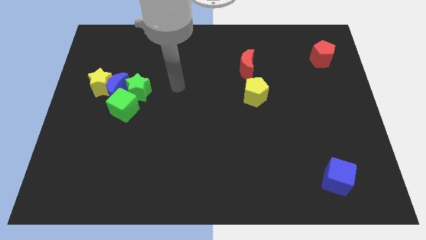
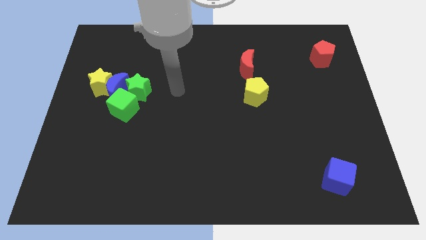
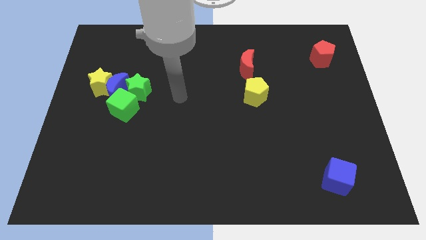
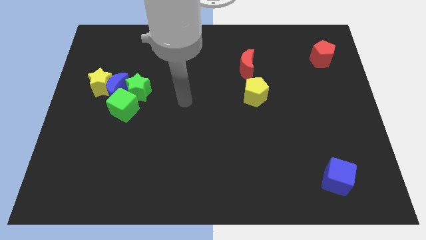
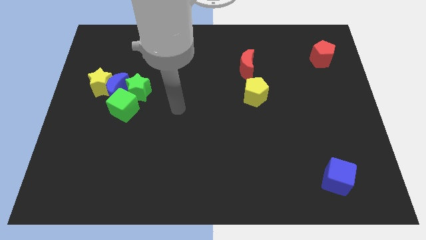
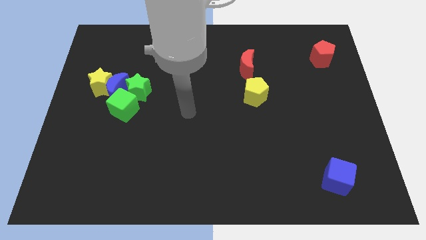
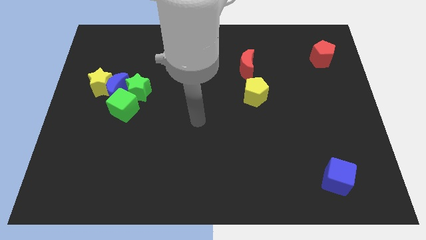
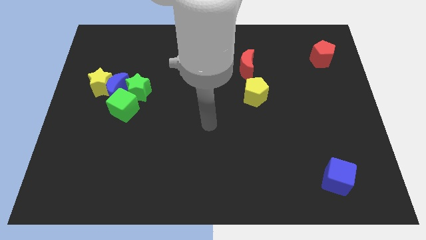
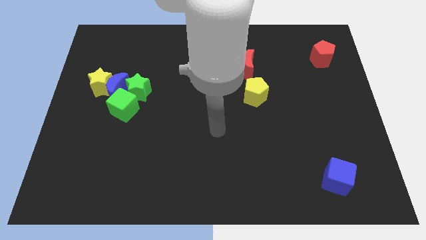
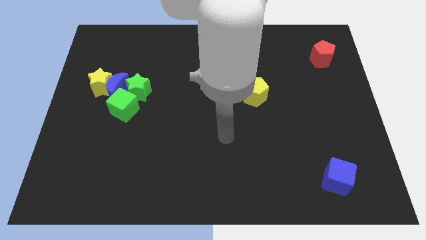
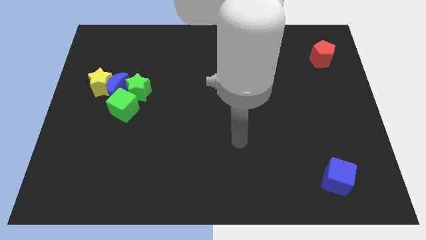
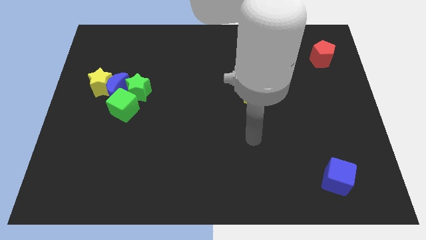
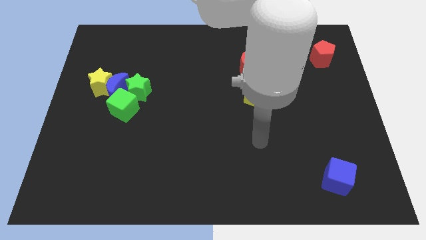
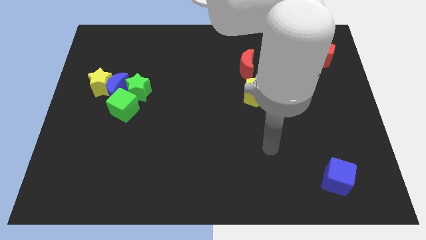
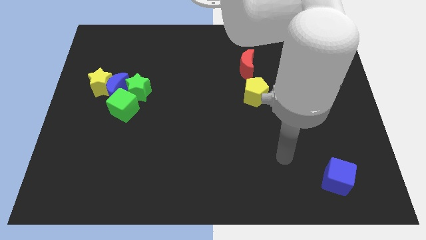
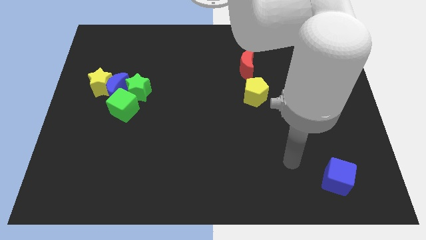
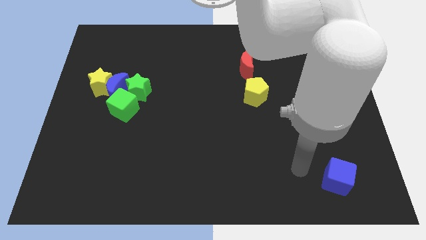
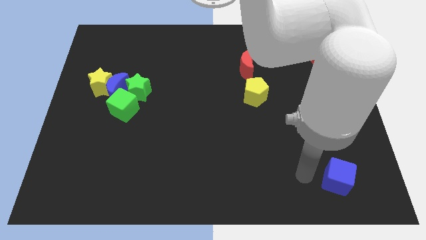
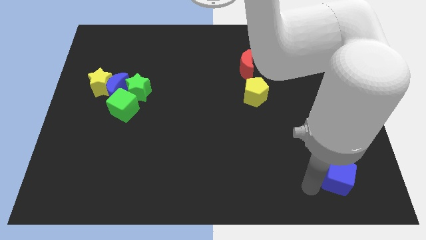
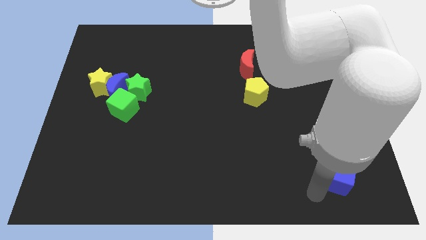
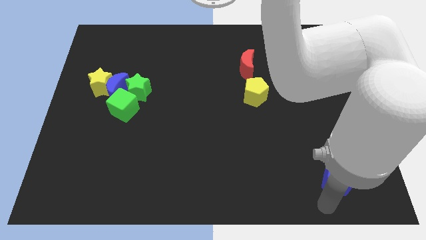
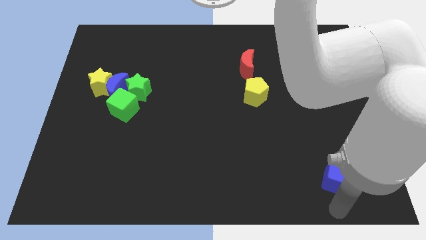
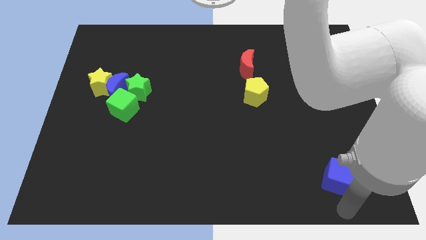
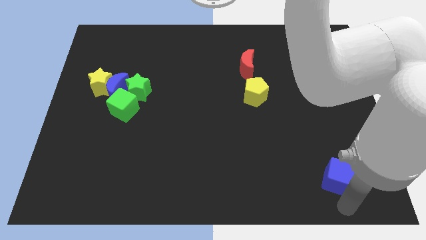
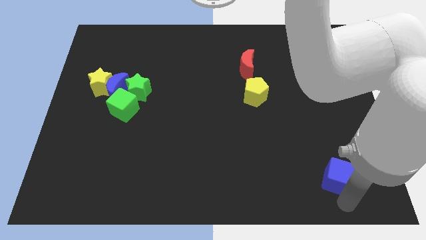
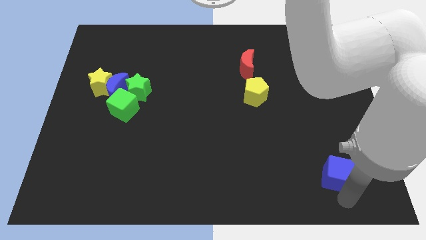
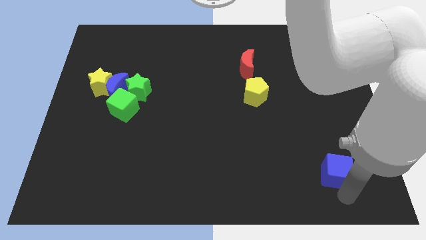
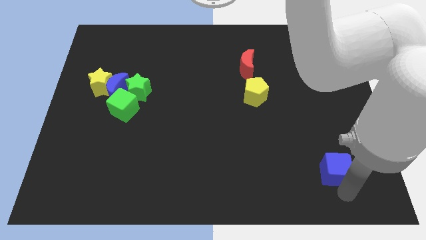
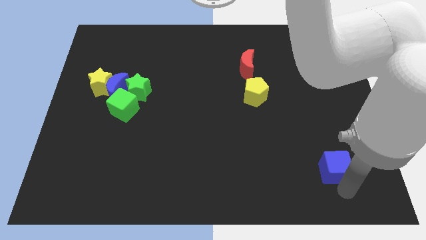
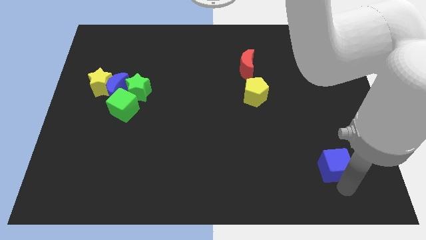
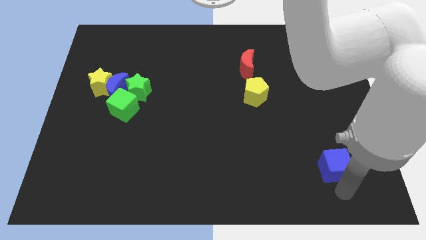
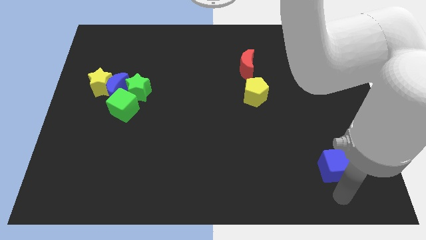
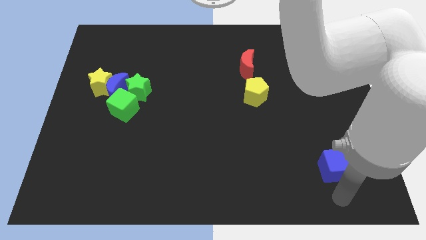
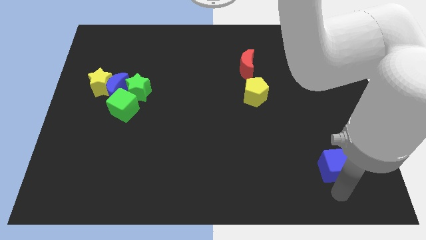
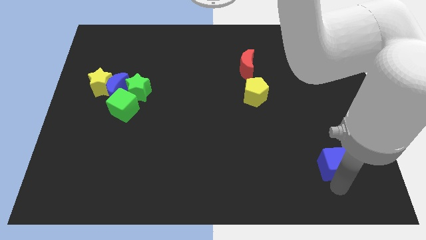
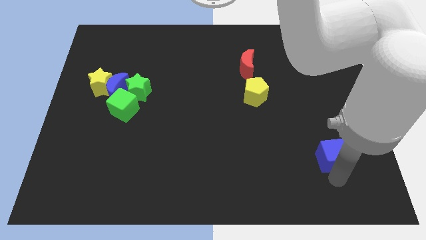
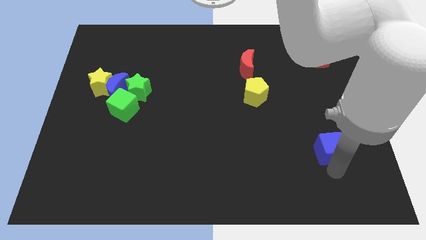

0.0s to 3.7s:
push the blue cube upwards a little bit

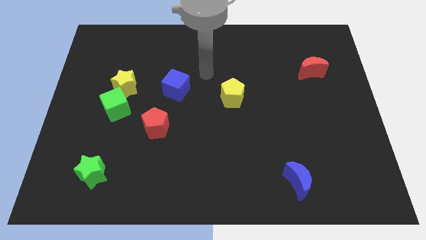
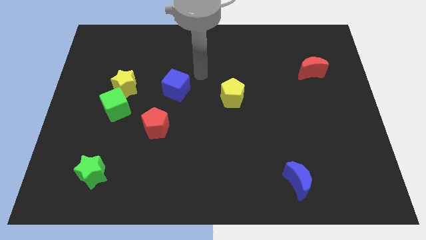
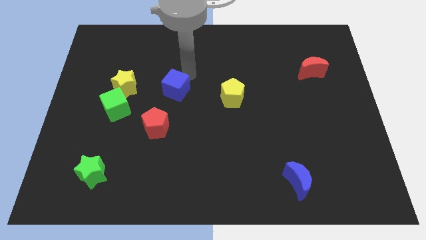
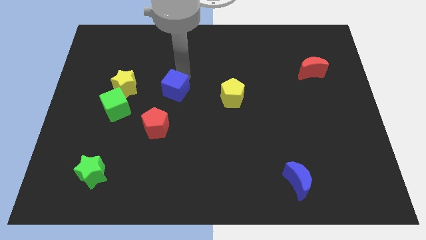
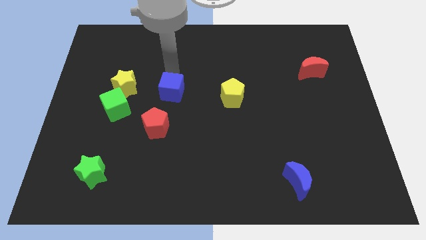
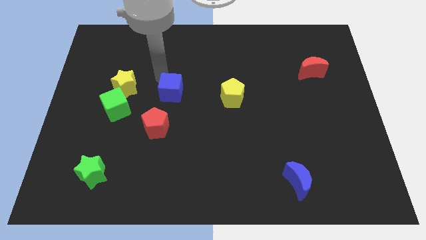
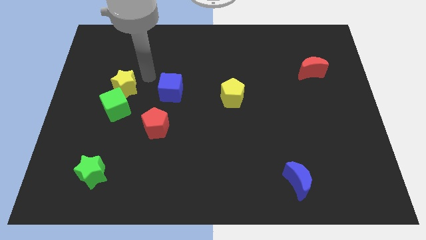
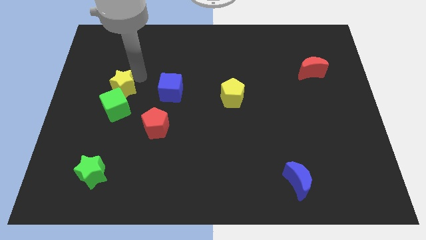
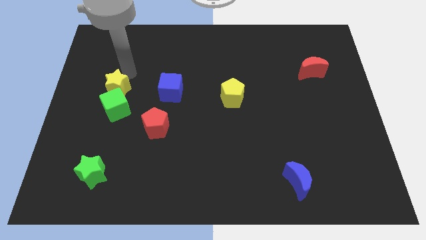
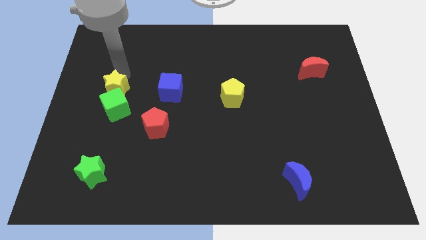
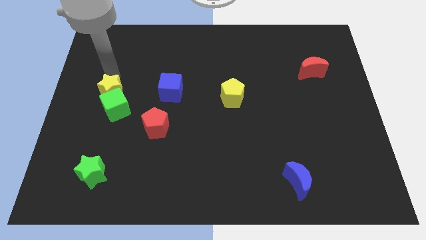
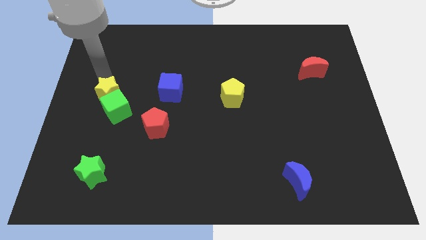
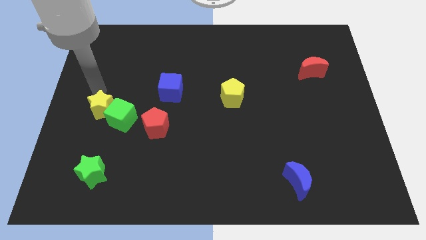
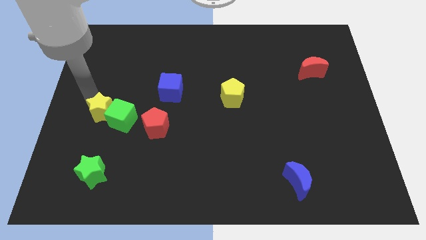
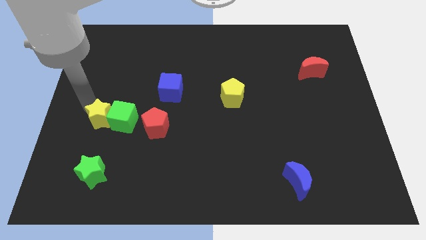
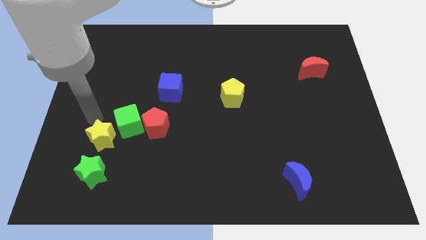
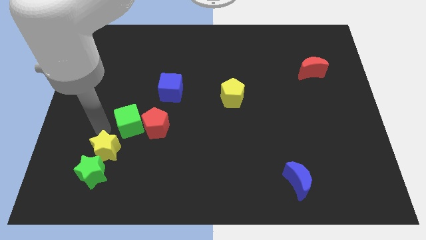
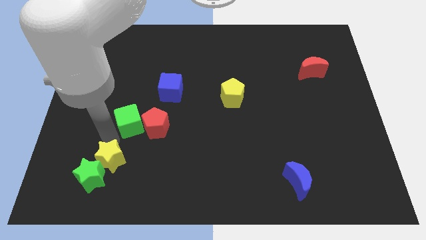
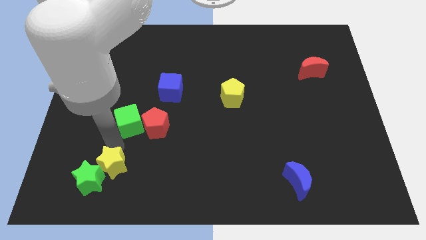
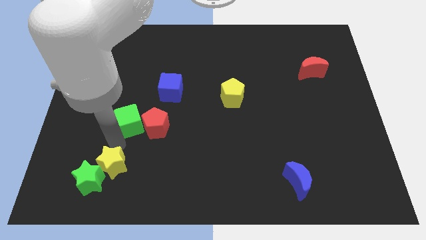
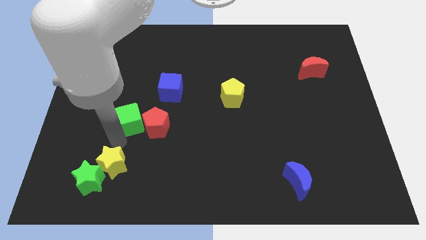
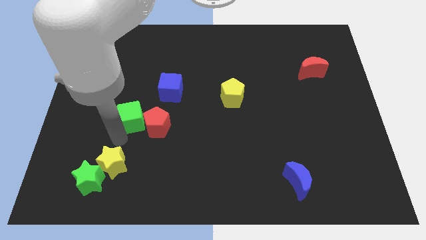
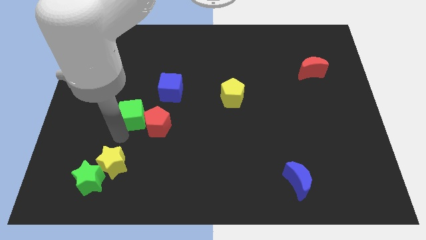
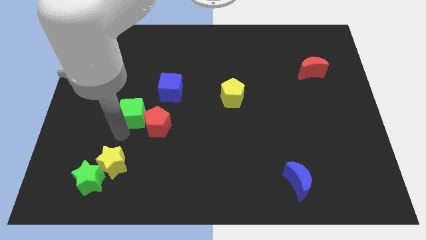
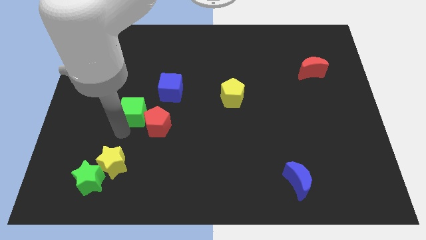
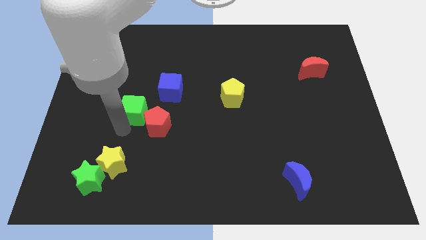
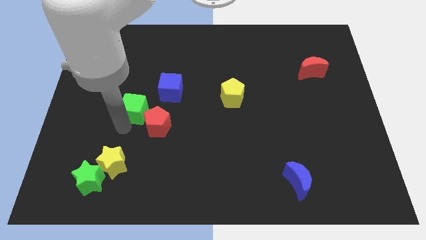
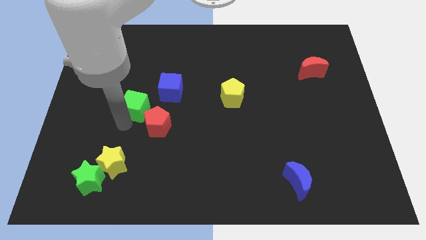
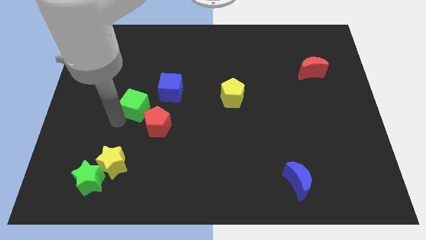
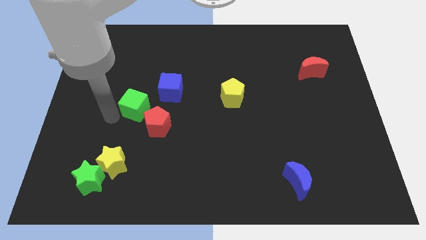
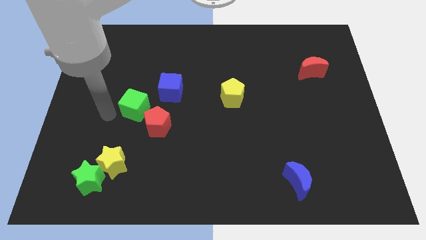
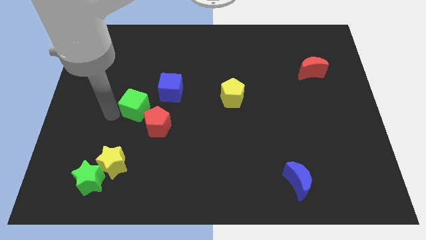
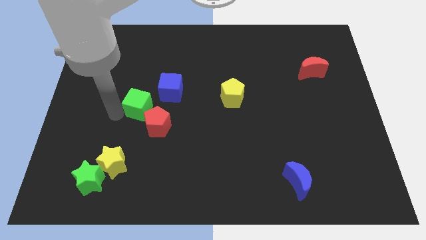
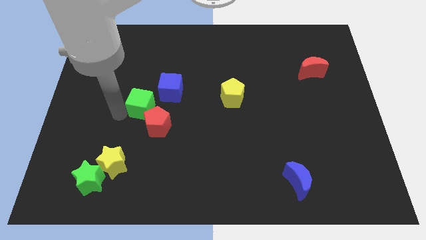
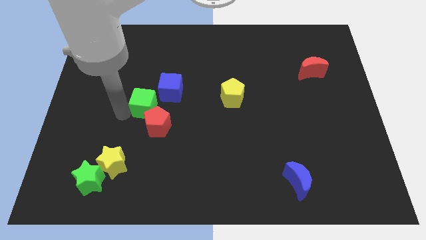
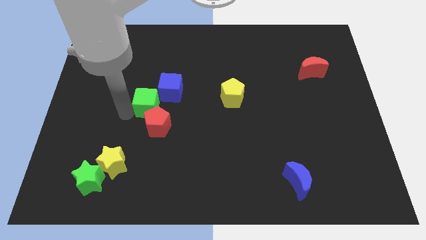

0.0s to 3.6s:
slightly push the green cube right

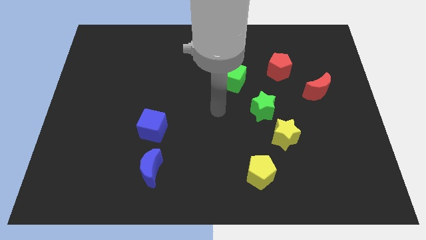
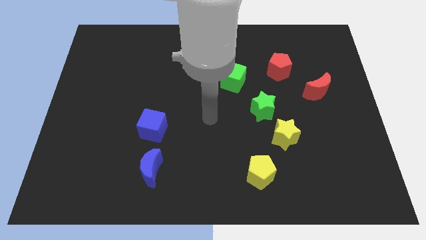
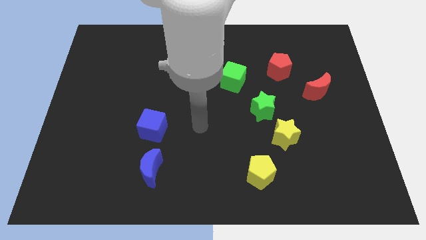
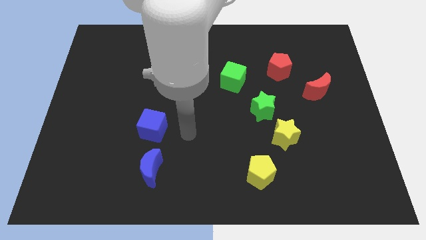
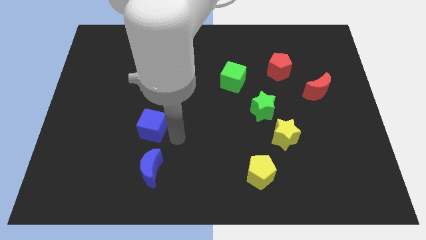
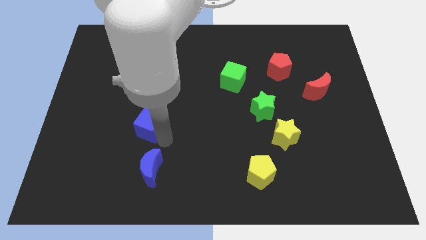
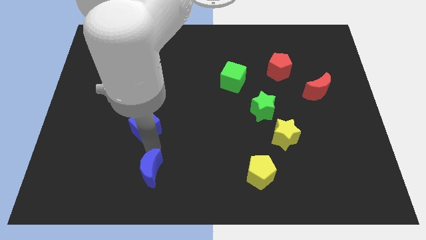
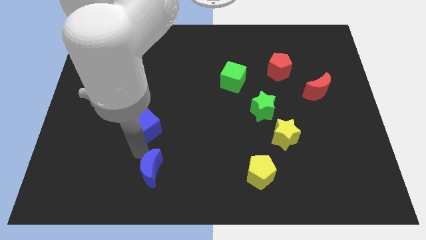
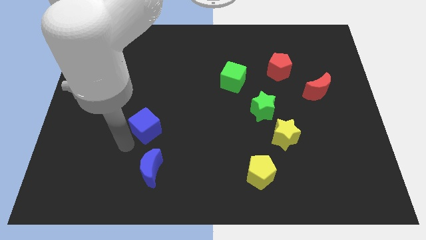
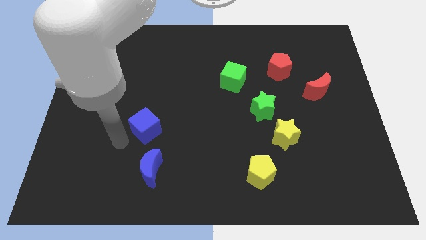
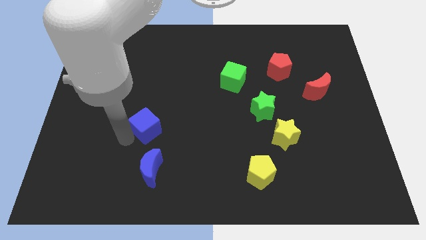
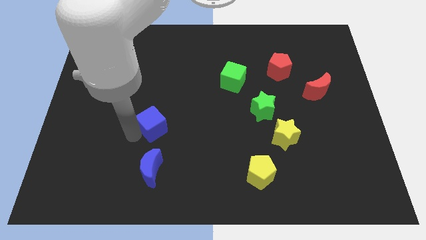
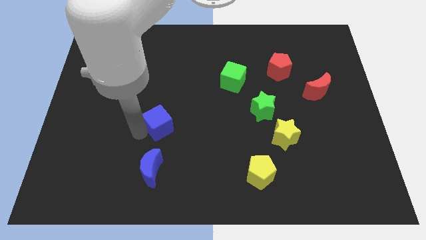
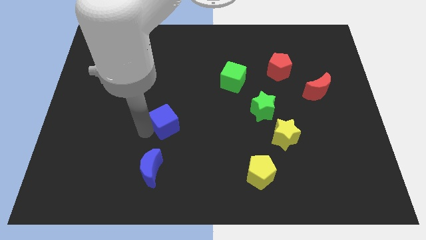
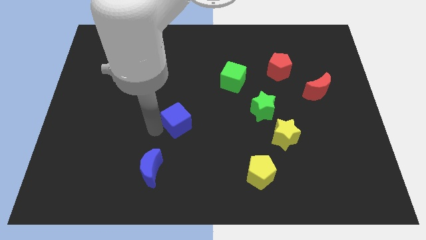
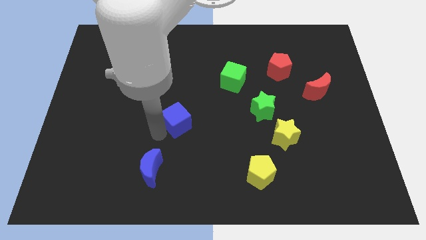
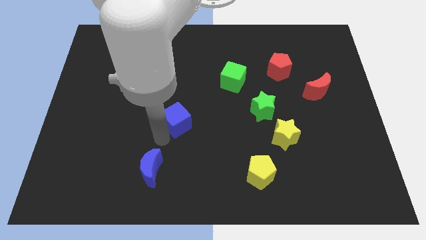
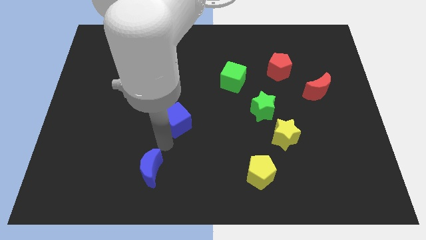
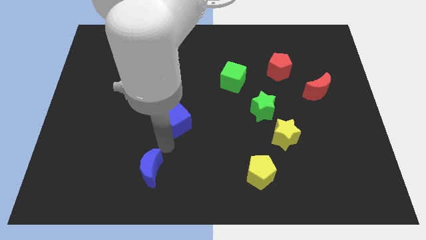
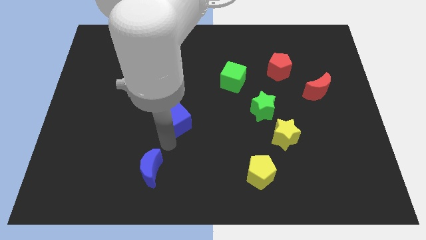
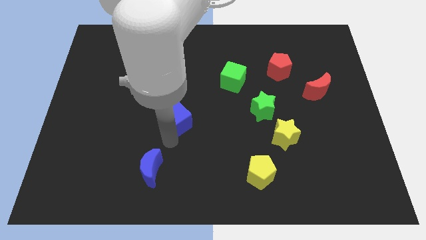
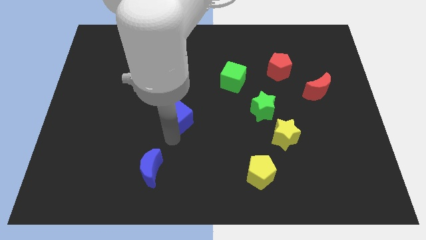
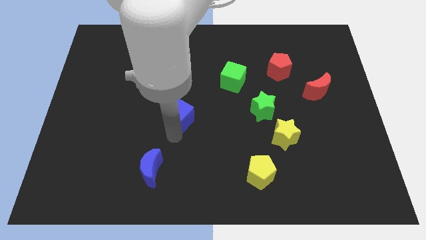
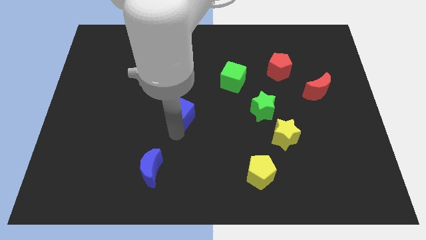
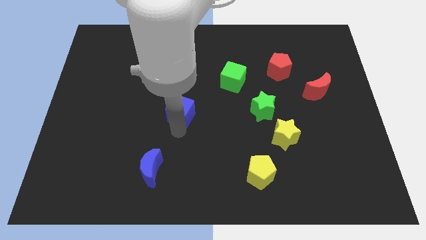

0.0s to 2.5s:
slightly move the blue cube diagonally upwards and right
